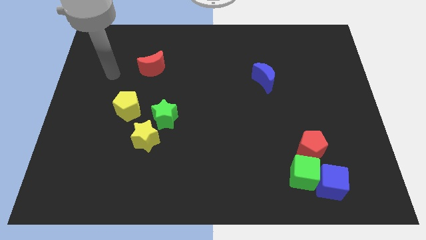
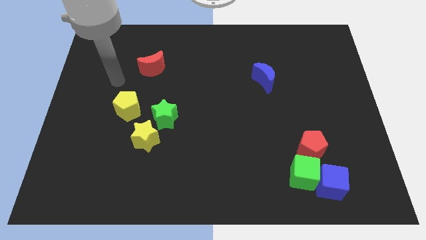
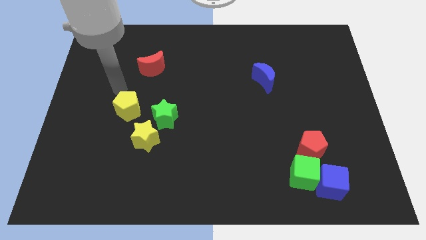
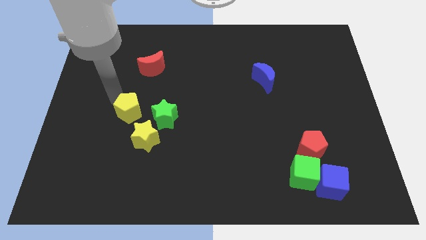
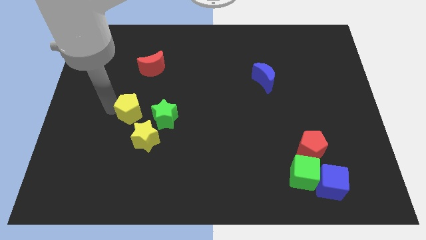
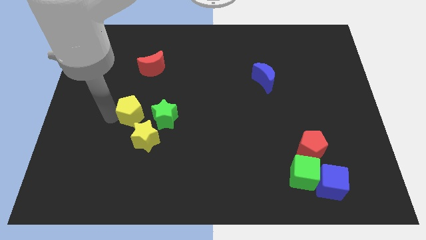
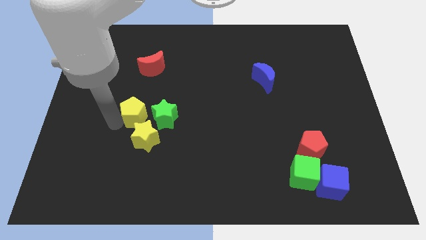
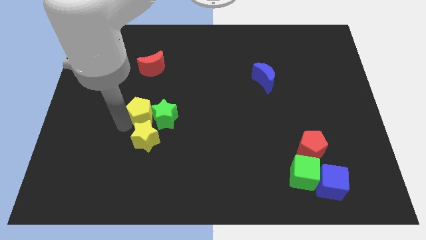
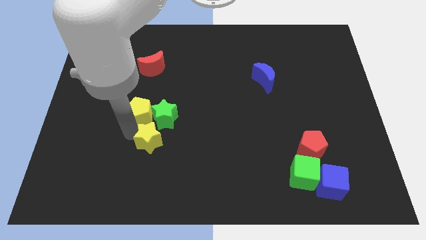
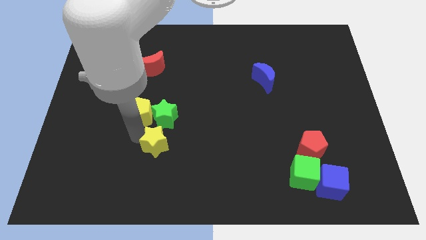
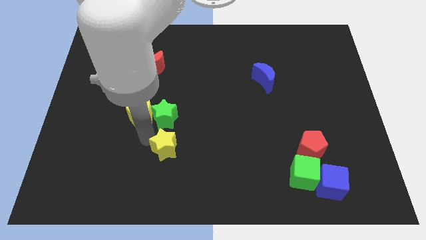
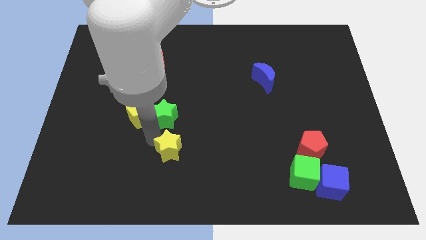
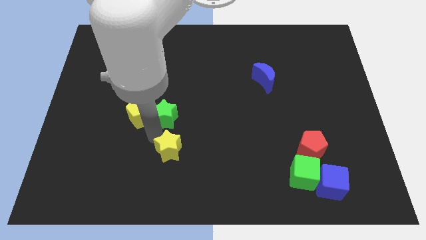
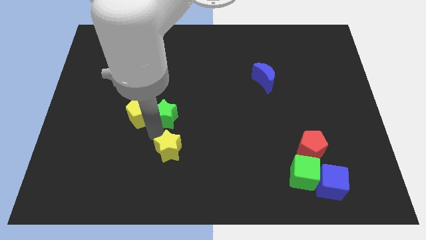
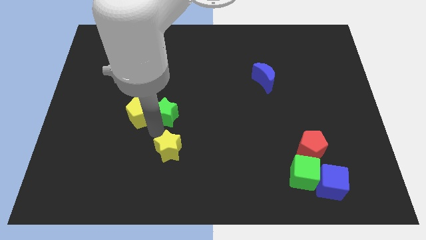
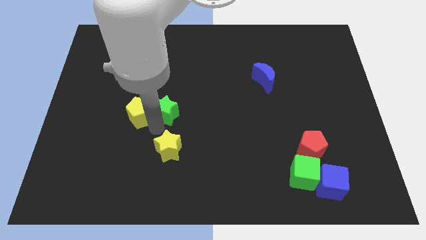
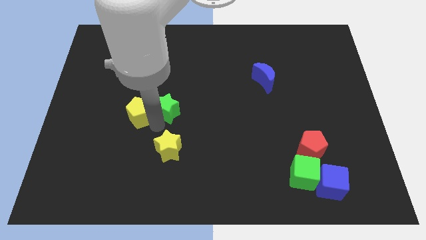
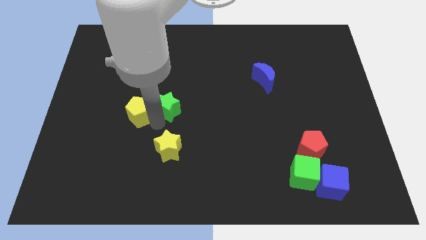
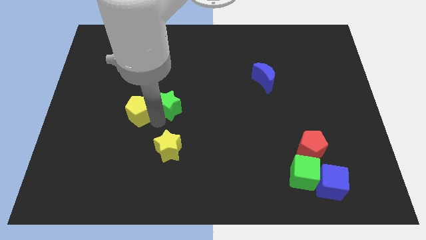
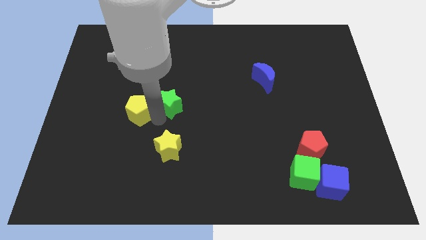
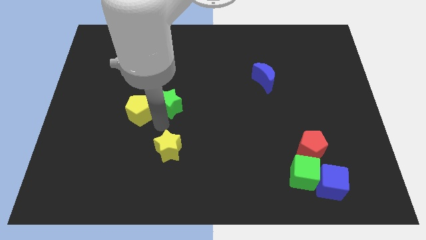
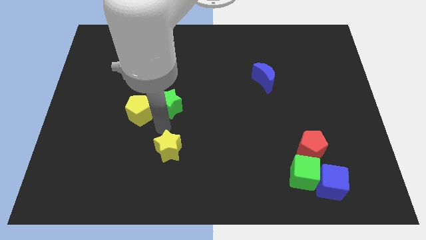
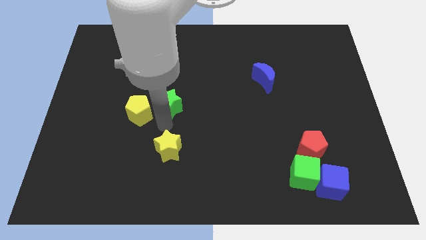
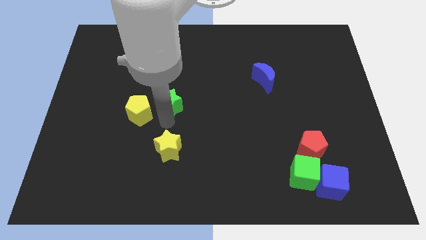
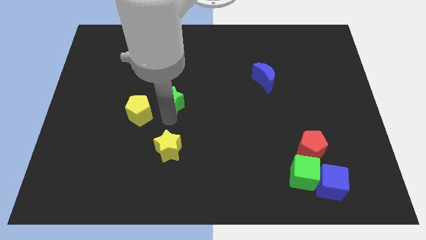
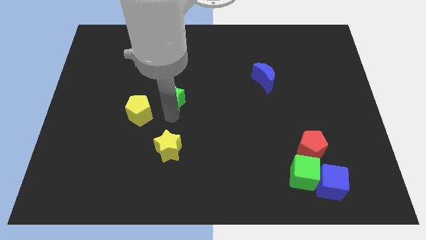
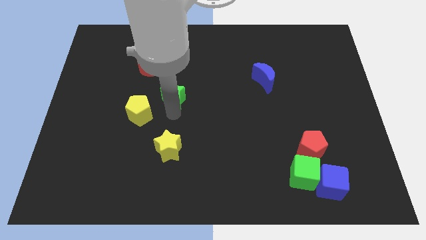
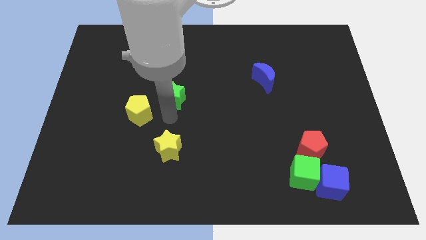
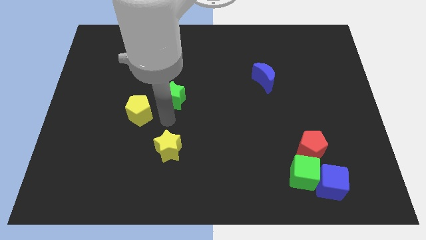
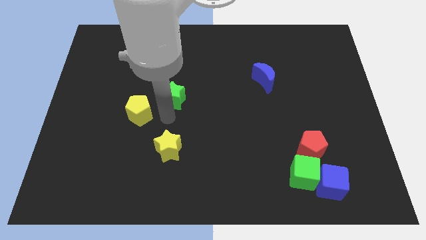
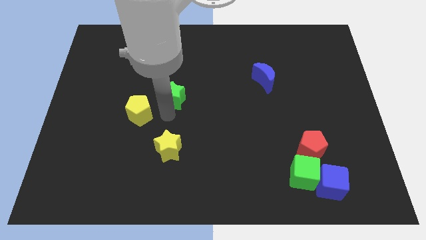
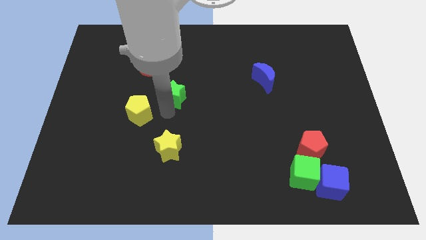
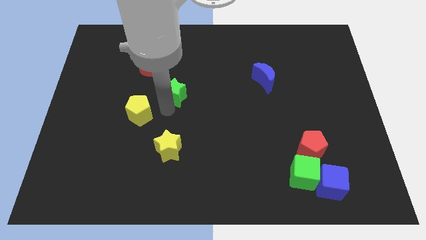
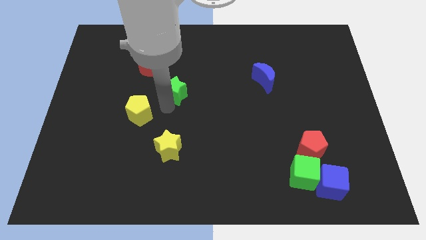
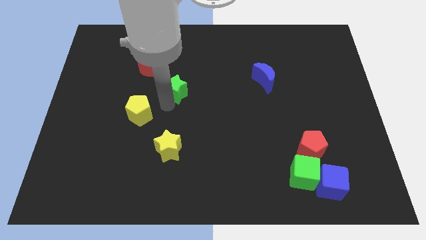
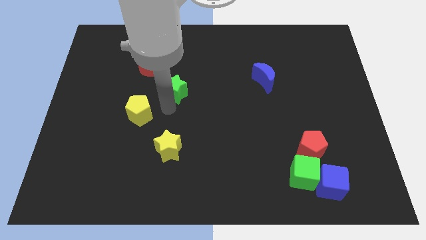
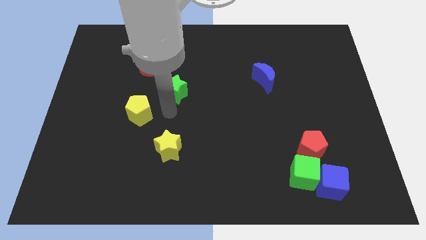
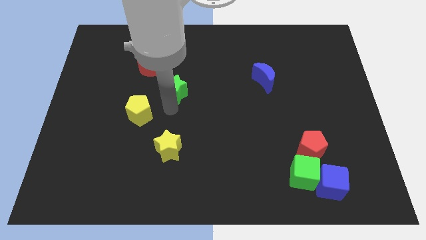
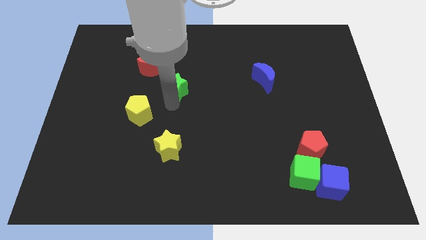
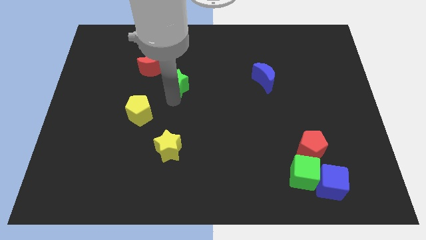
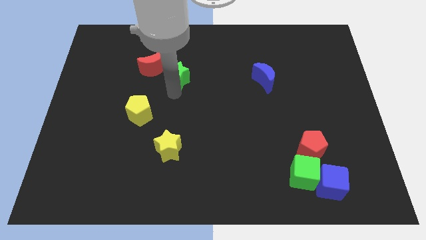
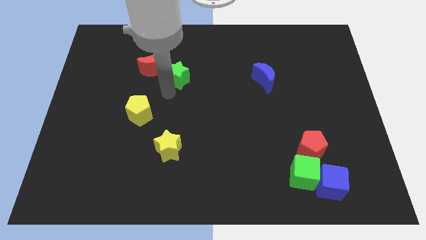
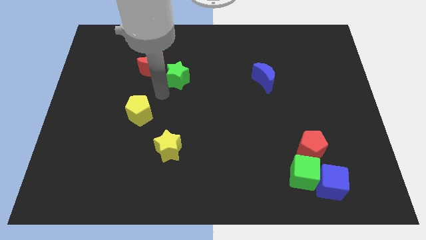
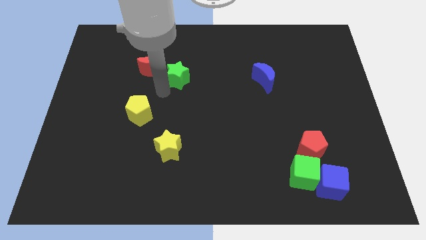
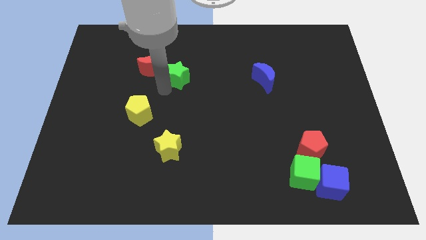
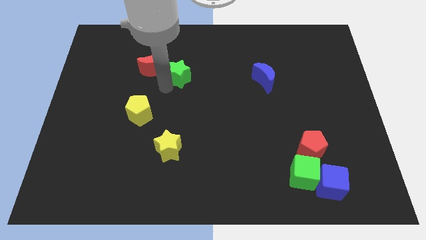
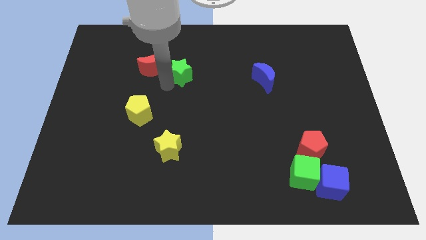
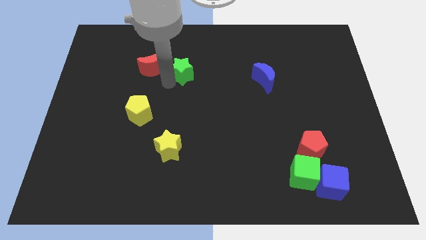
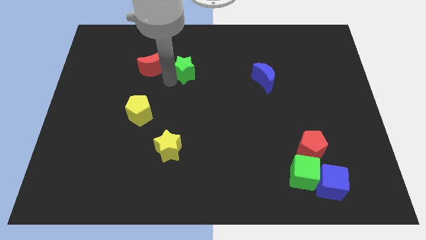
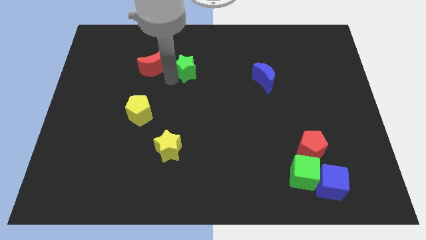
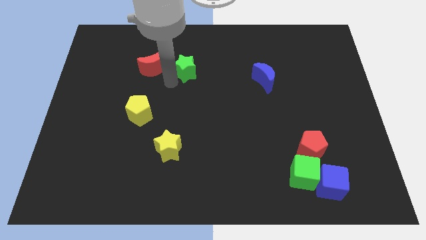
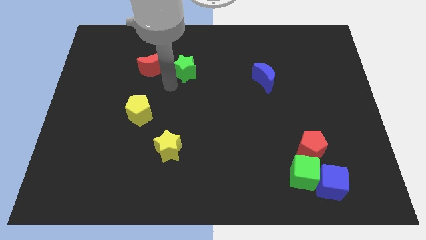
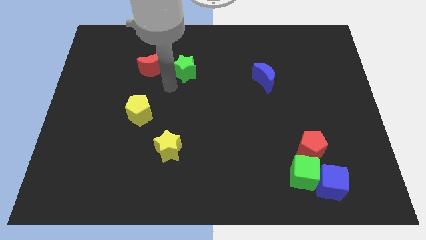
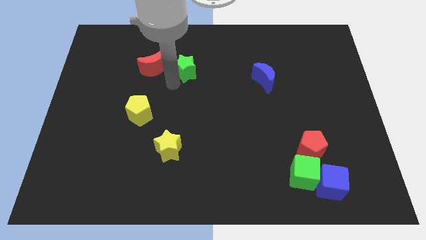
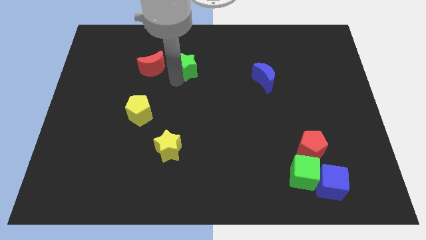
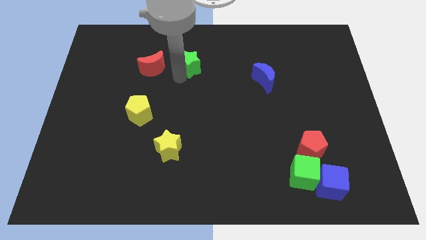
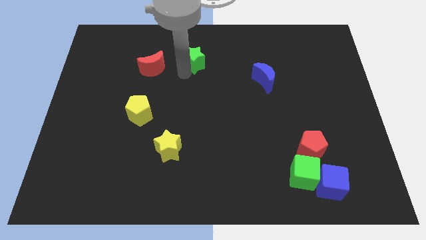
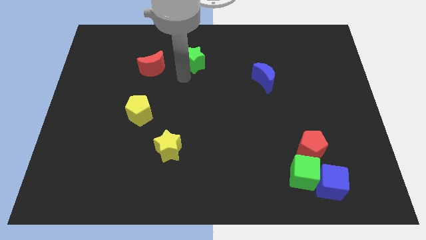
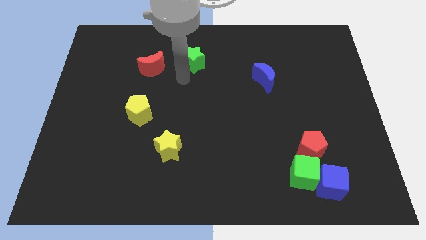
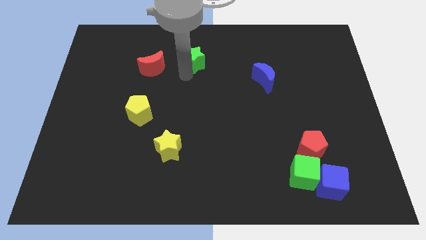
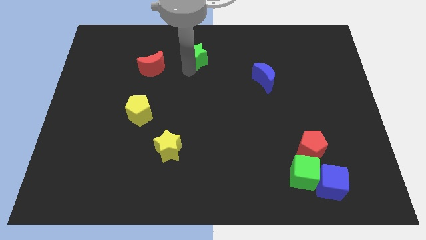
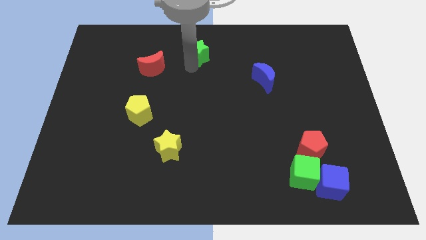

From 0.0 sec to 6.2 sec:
move the green star to the top

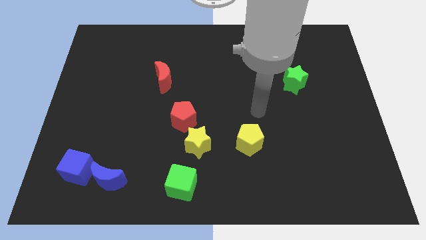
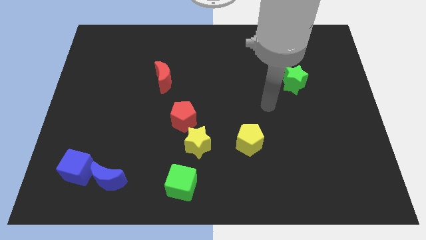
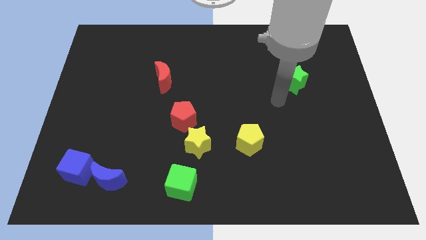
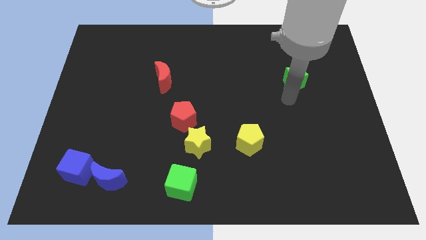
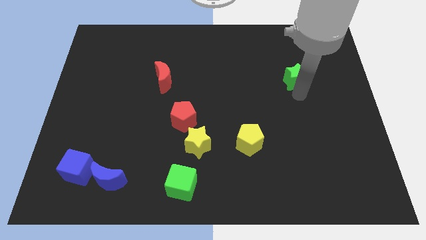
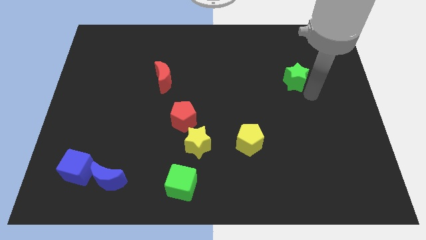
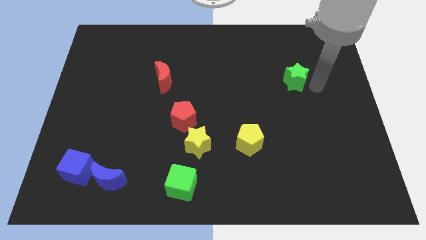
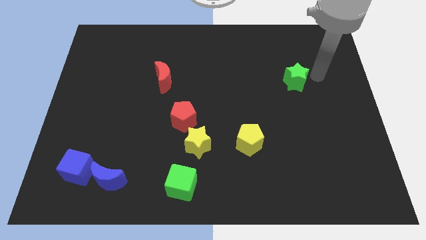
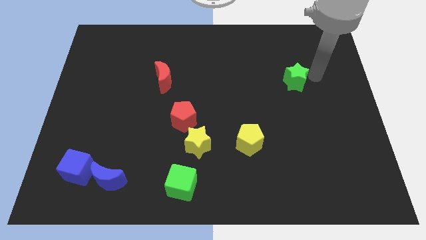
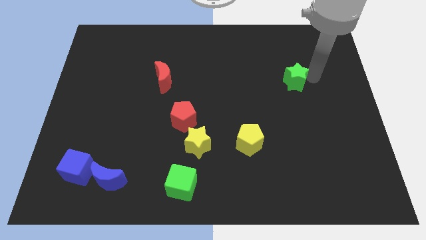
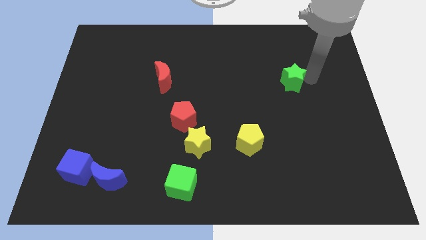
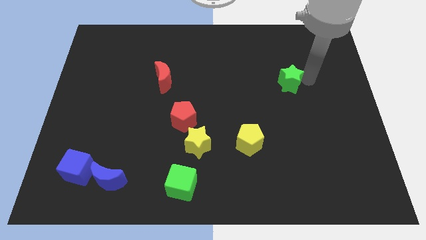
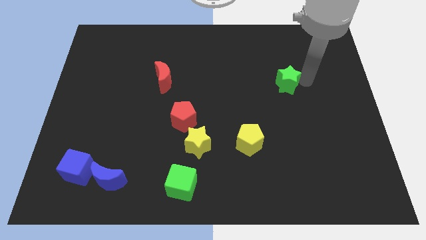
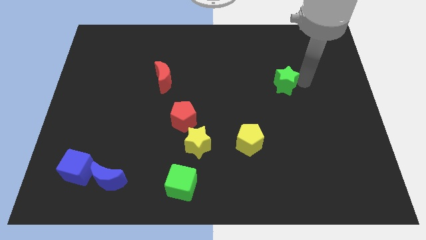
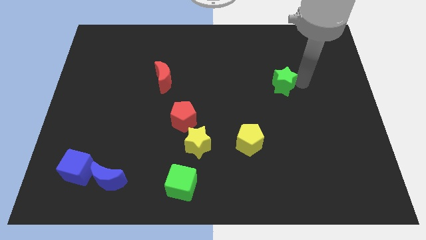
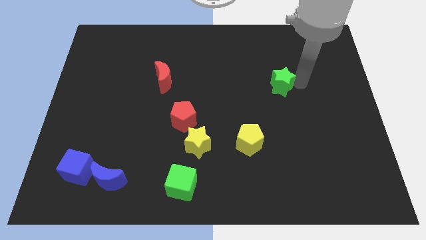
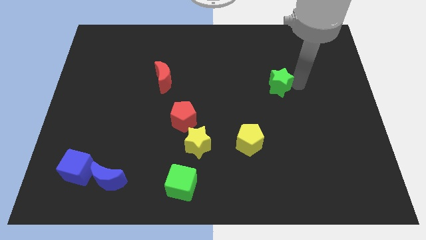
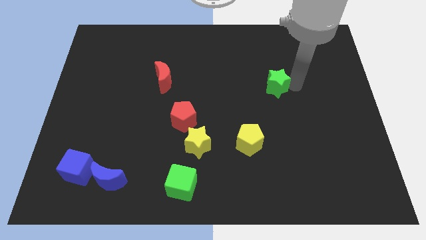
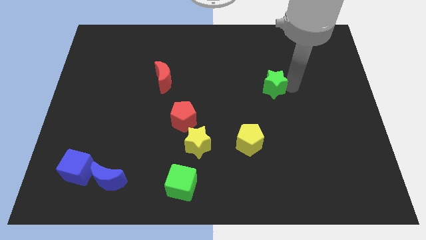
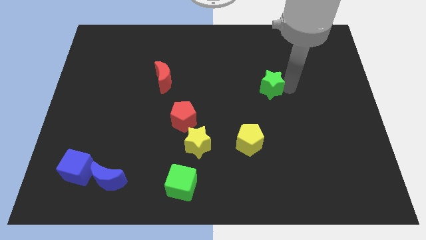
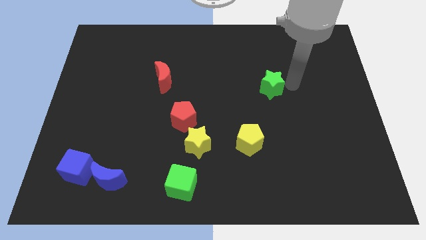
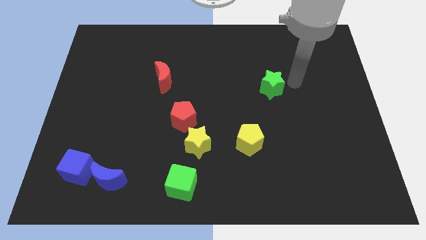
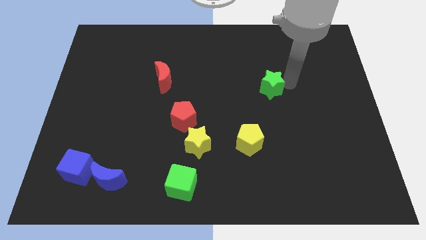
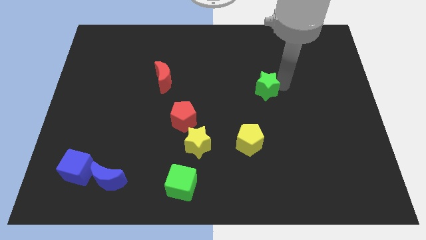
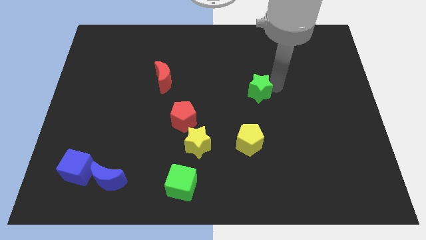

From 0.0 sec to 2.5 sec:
move the green star to the middle of the board
